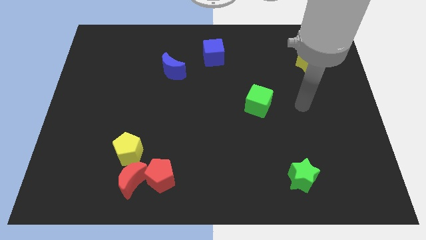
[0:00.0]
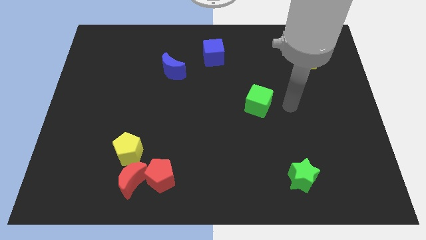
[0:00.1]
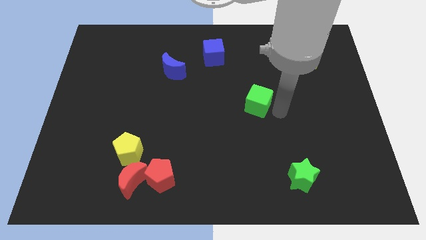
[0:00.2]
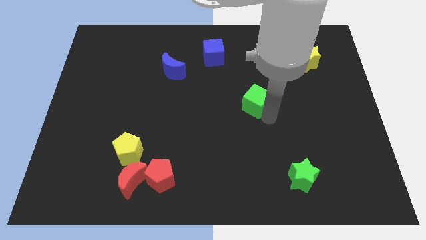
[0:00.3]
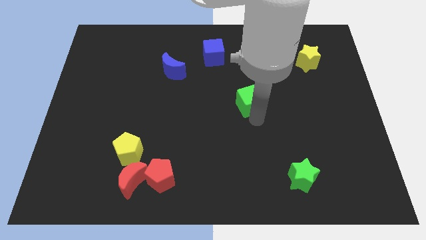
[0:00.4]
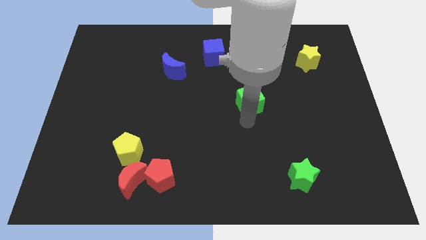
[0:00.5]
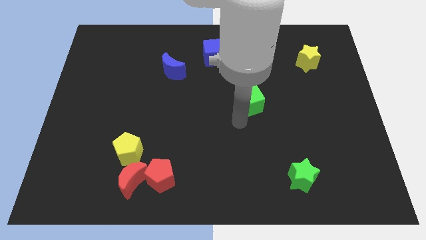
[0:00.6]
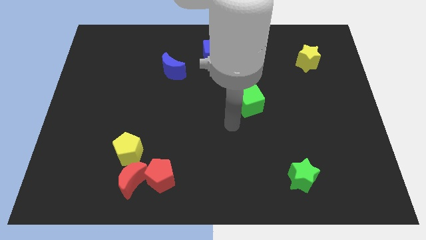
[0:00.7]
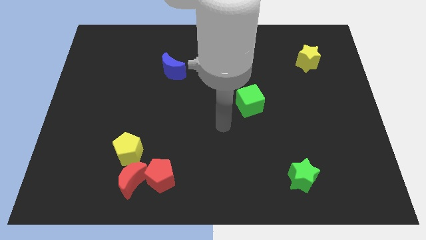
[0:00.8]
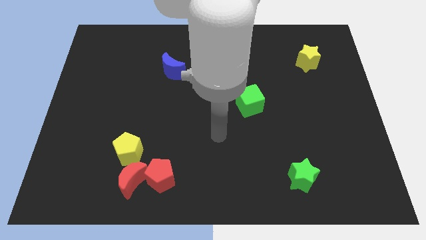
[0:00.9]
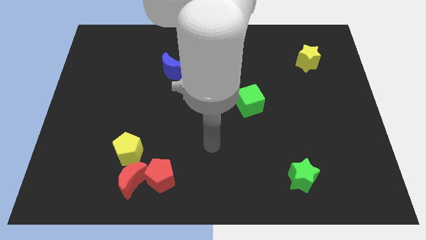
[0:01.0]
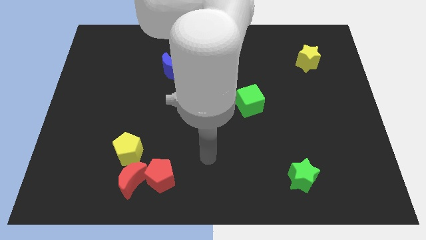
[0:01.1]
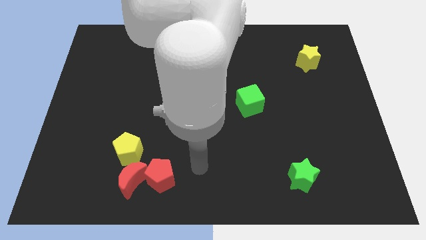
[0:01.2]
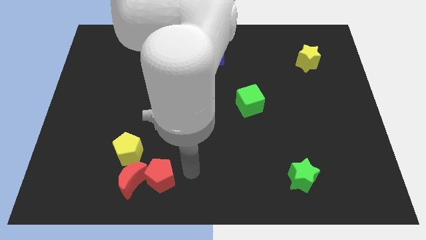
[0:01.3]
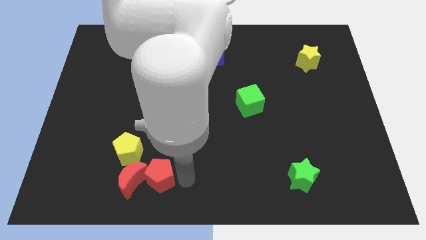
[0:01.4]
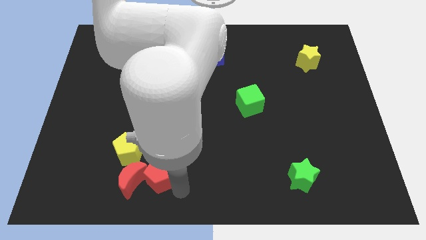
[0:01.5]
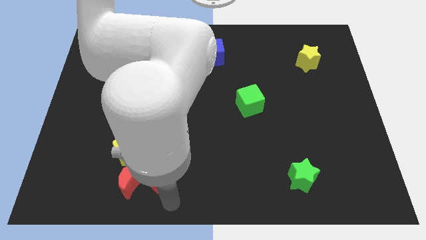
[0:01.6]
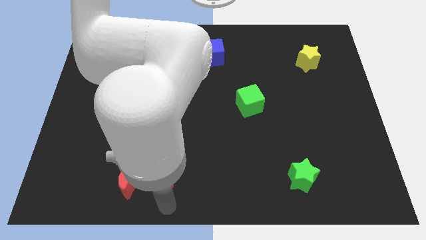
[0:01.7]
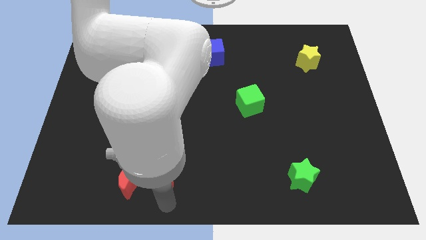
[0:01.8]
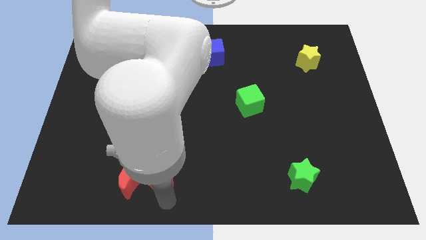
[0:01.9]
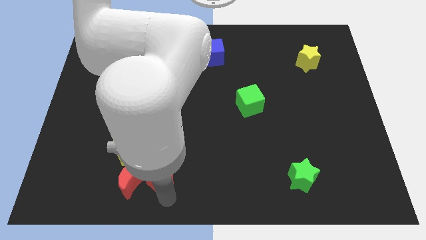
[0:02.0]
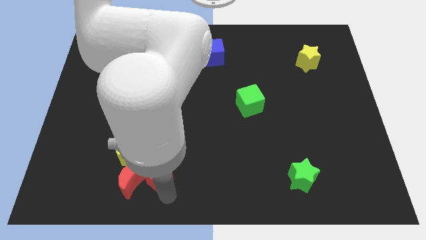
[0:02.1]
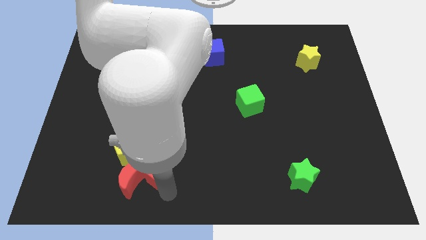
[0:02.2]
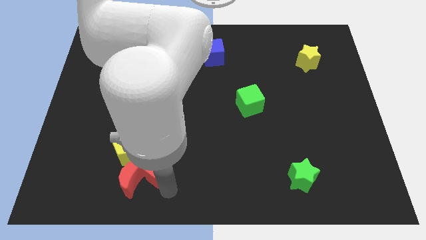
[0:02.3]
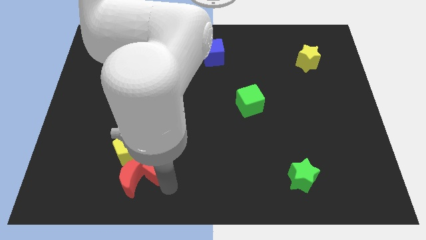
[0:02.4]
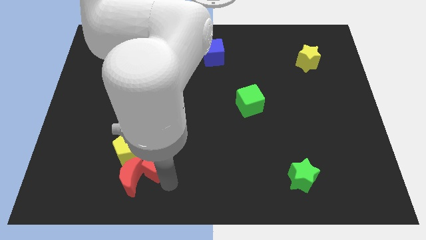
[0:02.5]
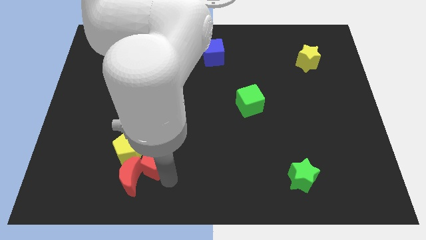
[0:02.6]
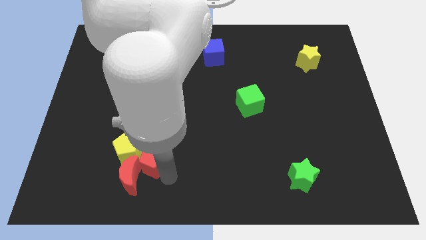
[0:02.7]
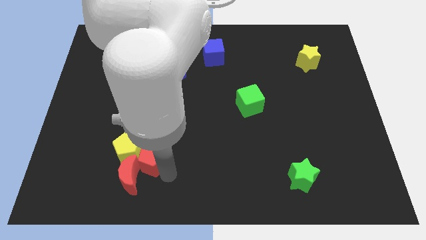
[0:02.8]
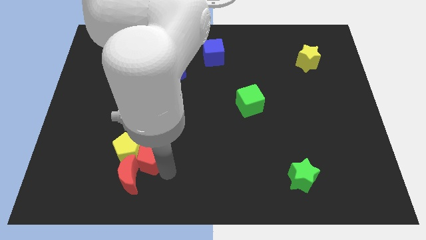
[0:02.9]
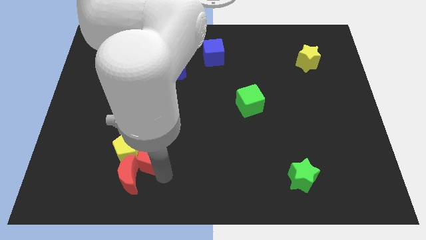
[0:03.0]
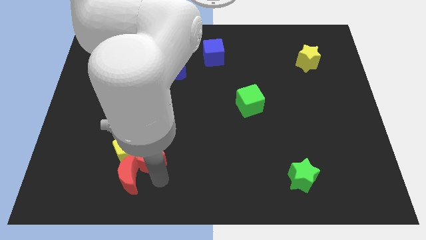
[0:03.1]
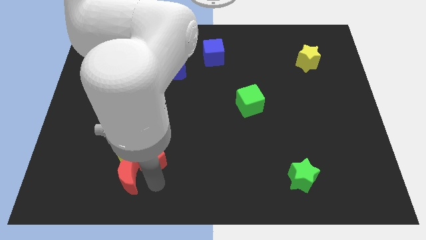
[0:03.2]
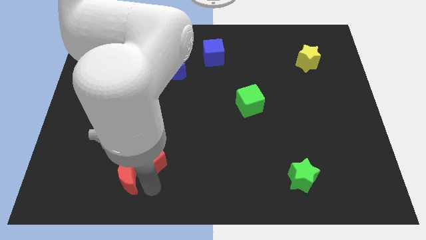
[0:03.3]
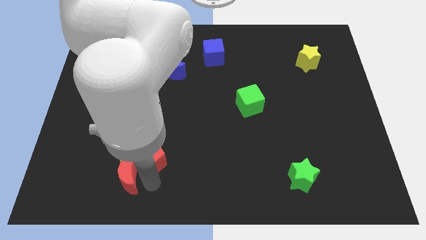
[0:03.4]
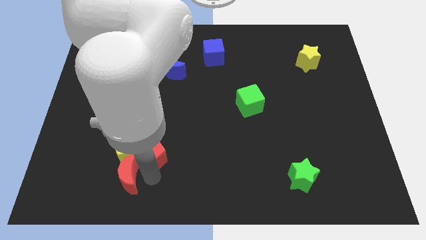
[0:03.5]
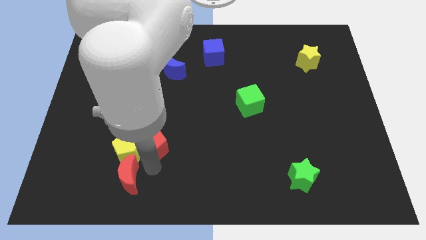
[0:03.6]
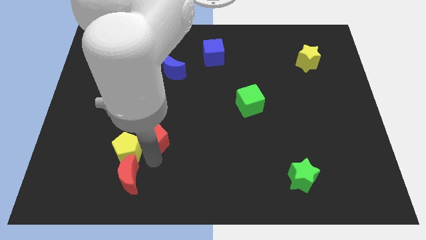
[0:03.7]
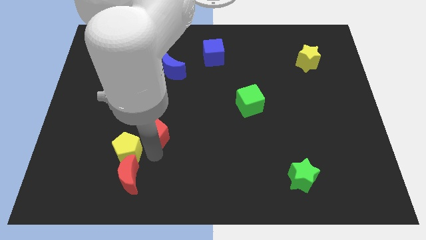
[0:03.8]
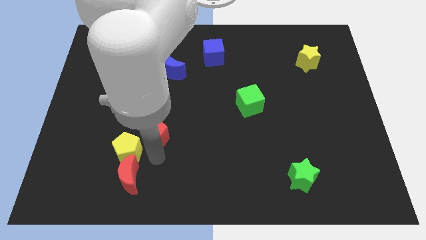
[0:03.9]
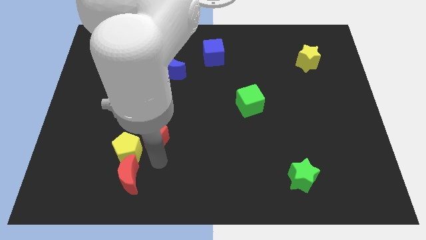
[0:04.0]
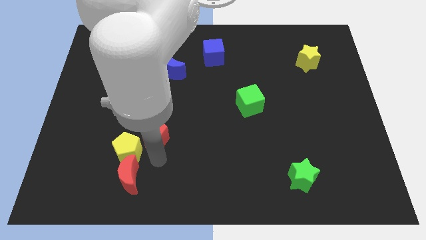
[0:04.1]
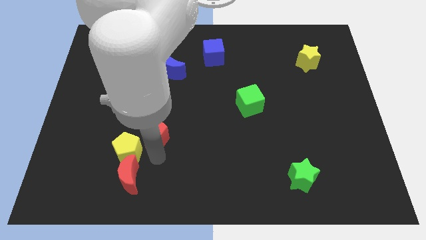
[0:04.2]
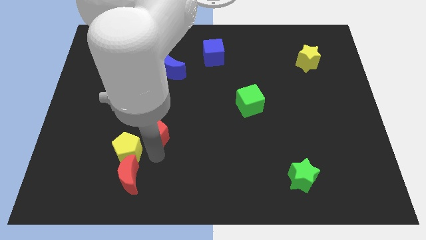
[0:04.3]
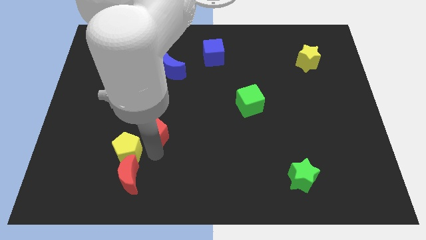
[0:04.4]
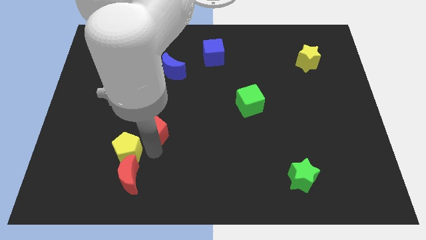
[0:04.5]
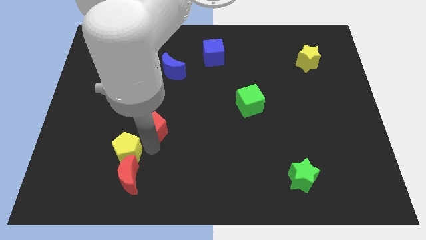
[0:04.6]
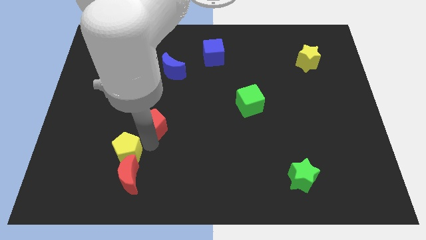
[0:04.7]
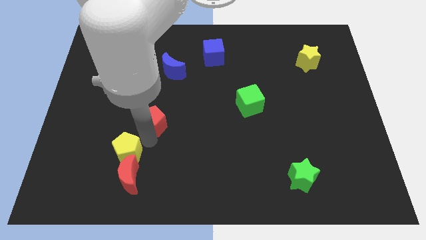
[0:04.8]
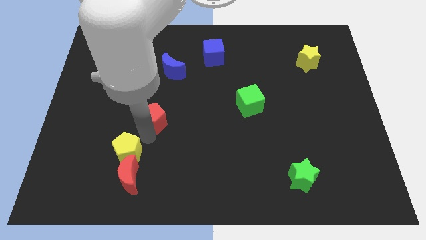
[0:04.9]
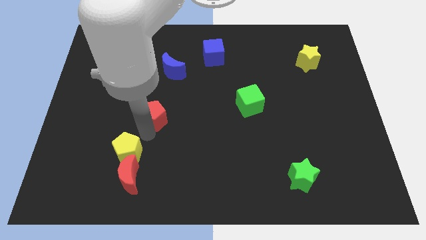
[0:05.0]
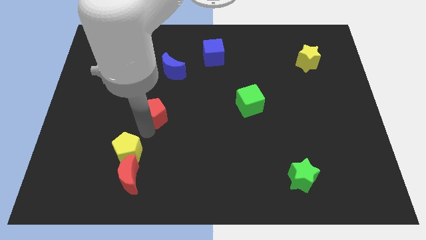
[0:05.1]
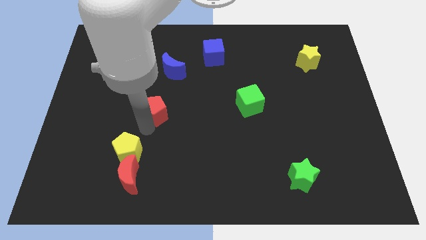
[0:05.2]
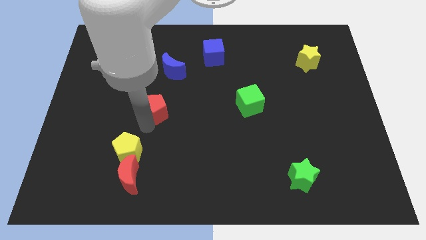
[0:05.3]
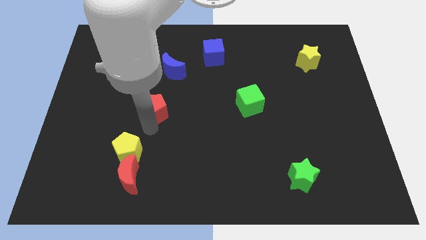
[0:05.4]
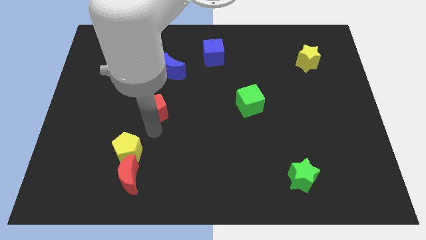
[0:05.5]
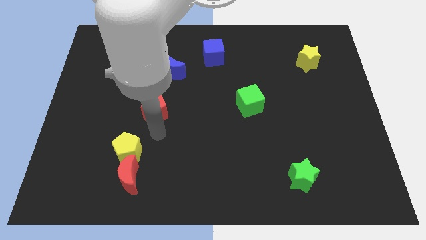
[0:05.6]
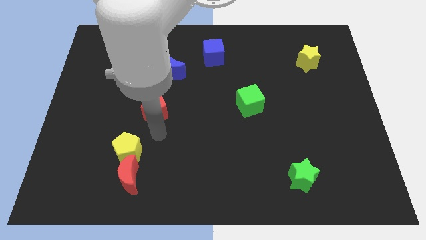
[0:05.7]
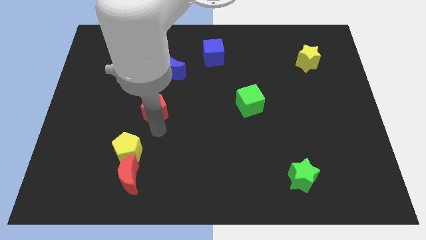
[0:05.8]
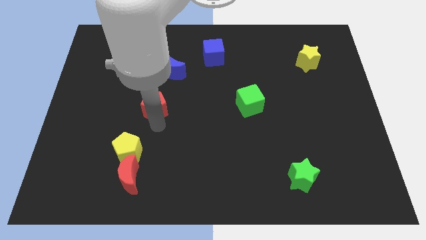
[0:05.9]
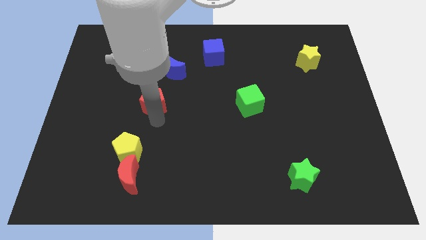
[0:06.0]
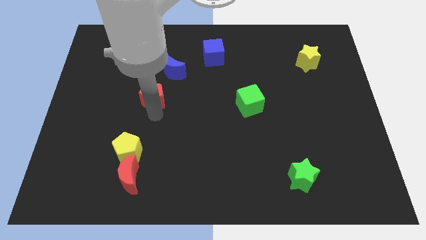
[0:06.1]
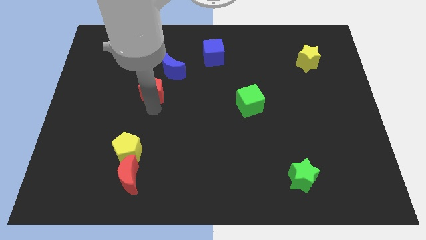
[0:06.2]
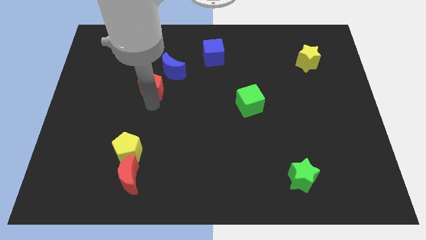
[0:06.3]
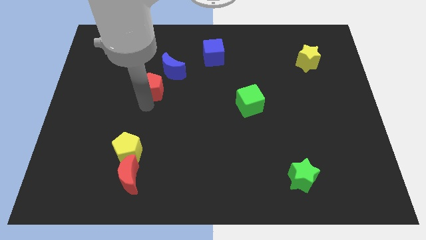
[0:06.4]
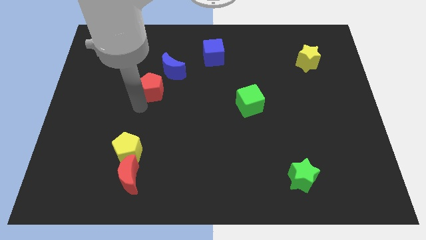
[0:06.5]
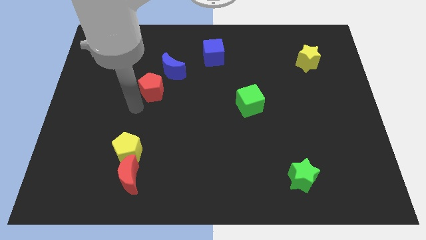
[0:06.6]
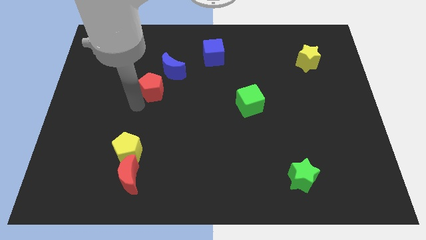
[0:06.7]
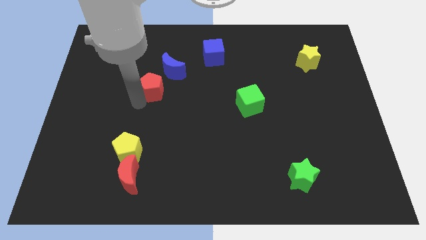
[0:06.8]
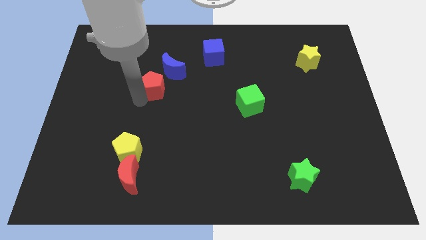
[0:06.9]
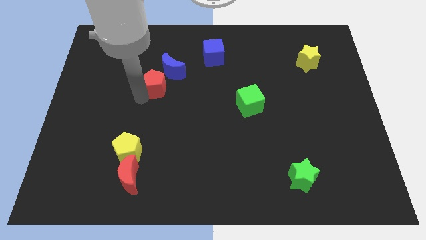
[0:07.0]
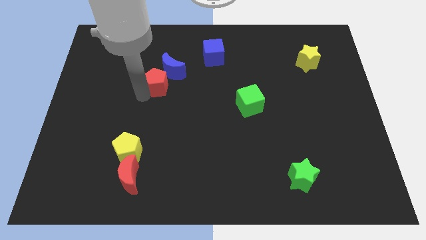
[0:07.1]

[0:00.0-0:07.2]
put the red pentagon close to the blue moon

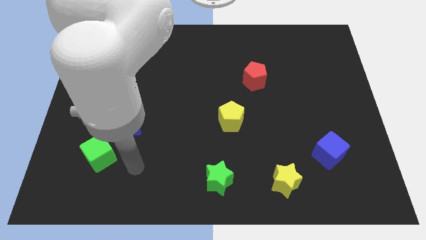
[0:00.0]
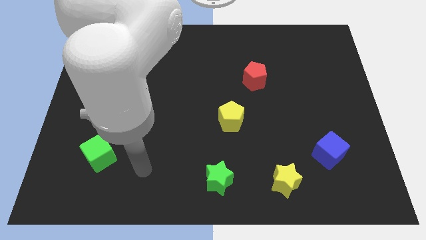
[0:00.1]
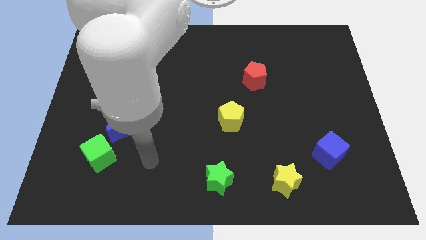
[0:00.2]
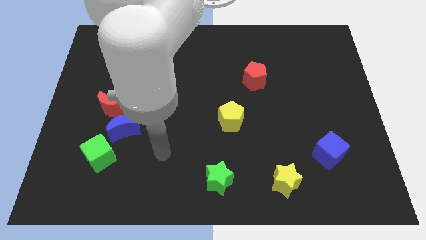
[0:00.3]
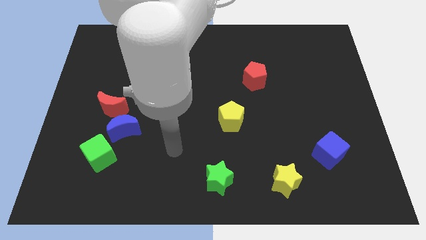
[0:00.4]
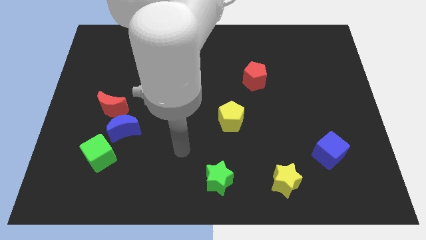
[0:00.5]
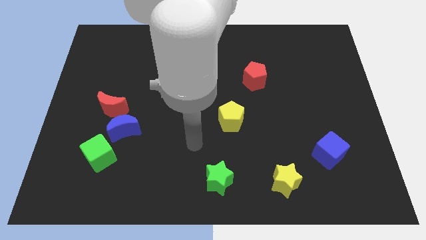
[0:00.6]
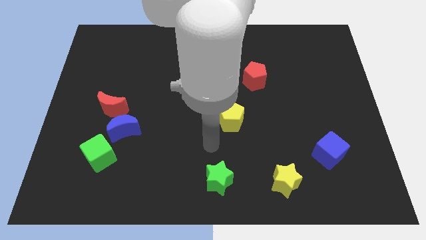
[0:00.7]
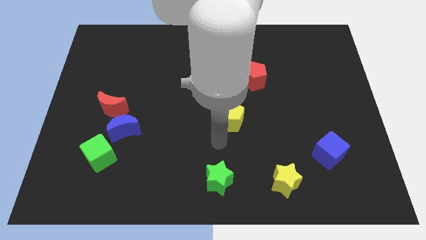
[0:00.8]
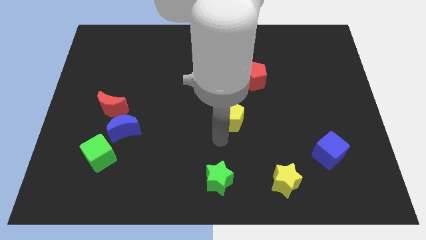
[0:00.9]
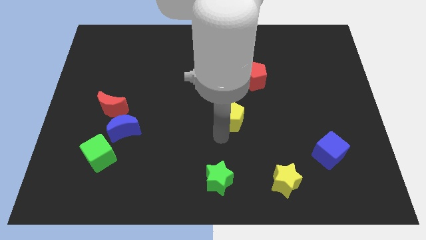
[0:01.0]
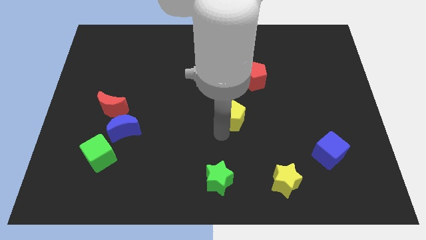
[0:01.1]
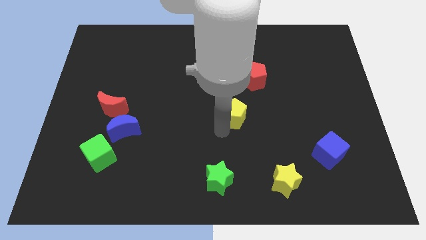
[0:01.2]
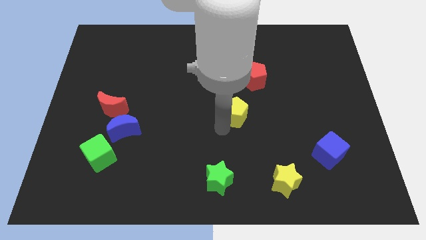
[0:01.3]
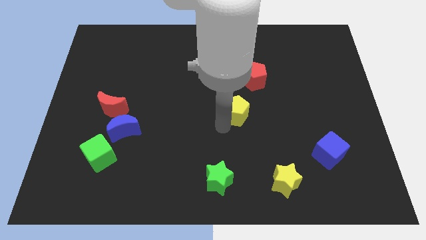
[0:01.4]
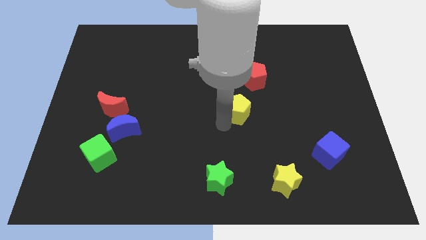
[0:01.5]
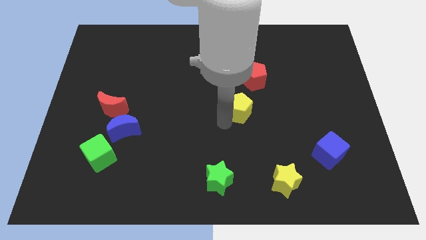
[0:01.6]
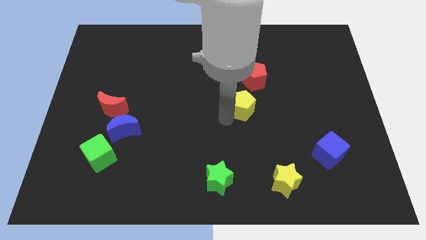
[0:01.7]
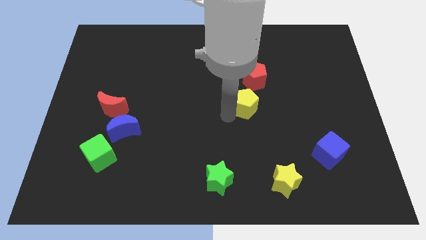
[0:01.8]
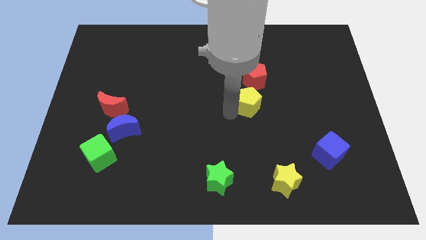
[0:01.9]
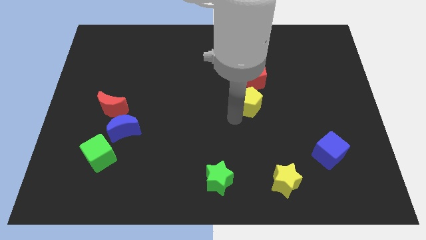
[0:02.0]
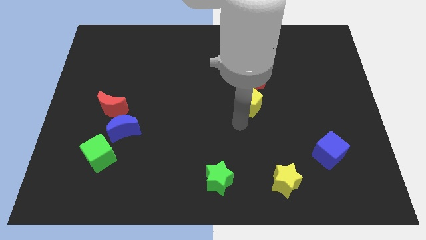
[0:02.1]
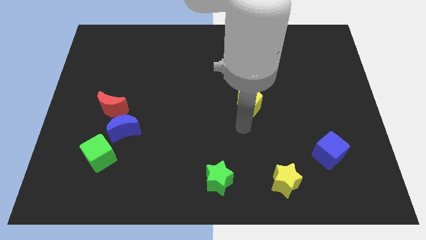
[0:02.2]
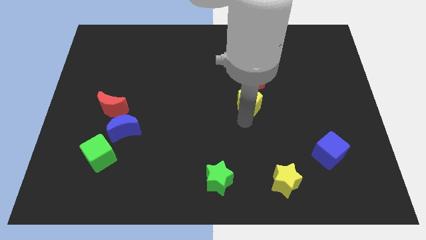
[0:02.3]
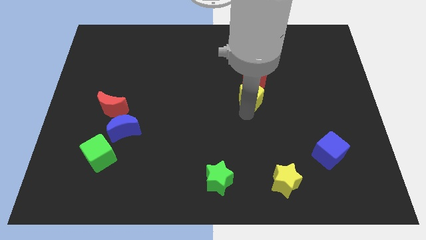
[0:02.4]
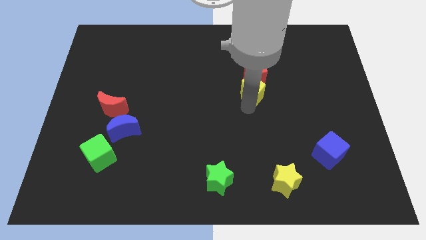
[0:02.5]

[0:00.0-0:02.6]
put the yellow pentagon close to the red pentagon
